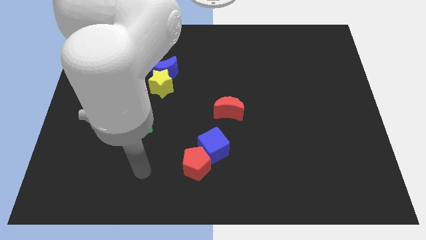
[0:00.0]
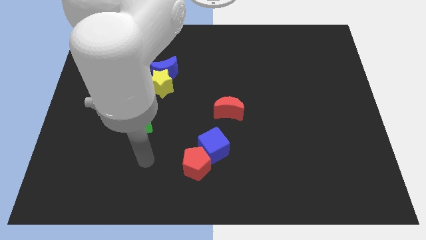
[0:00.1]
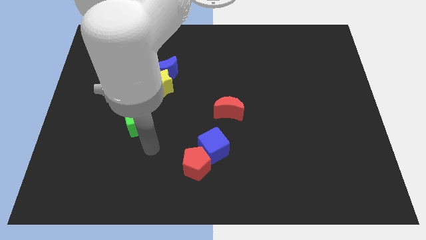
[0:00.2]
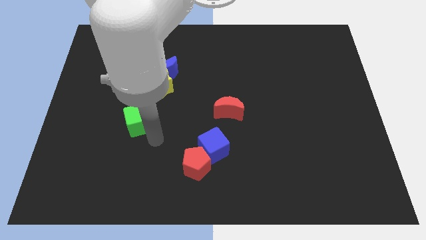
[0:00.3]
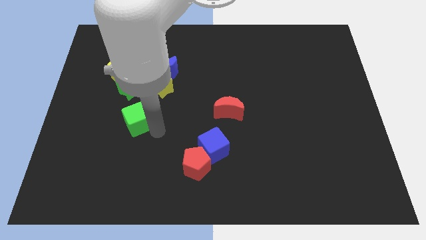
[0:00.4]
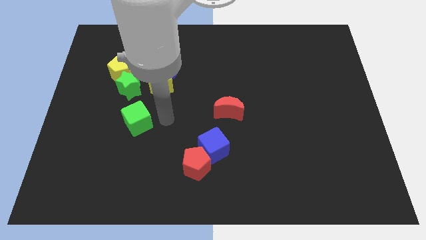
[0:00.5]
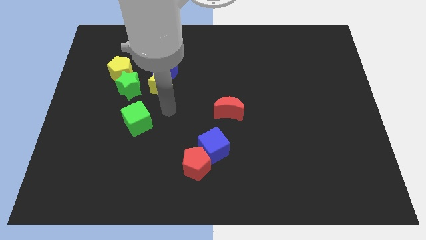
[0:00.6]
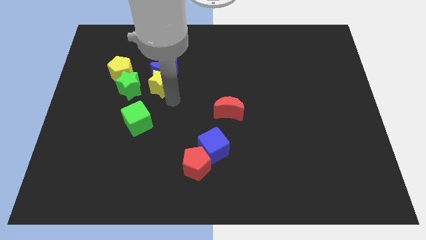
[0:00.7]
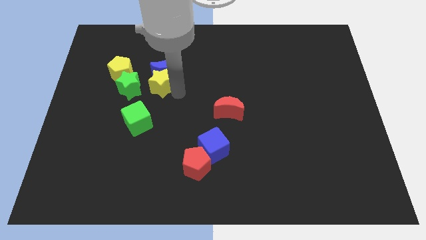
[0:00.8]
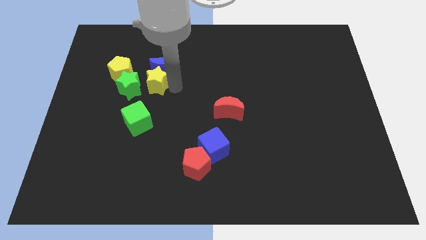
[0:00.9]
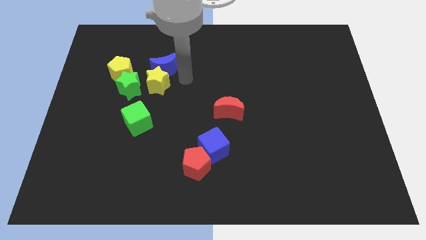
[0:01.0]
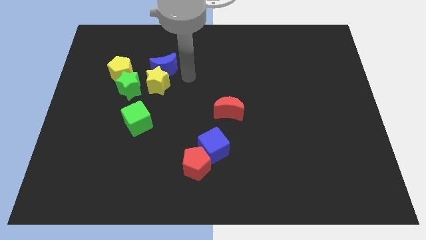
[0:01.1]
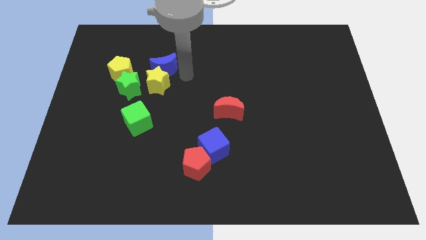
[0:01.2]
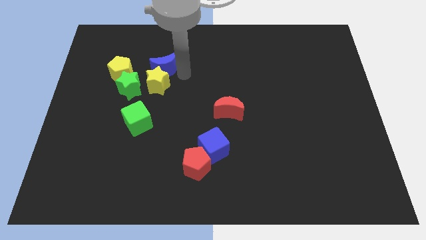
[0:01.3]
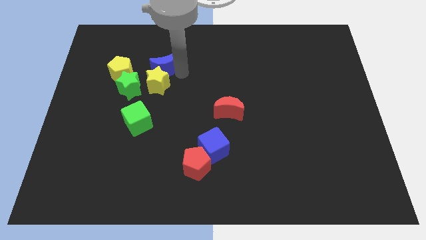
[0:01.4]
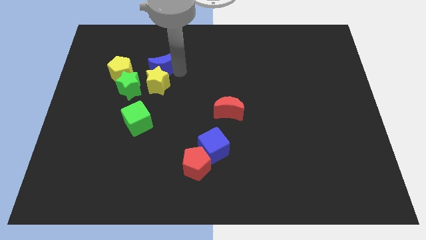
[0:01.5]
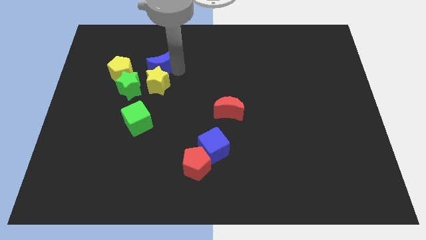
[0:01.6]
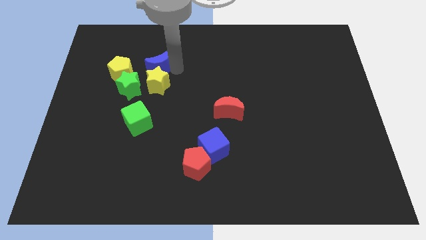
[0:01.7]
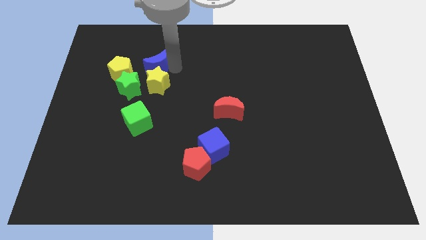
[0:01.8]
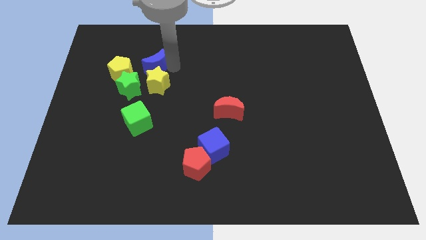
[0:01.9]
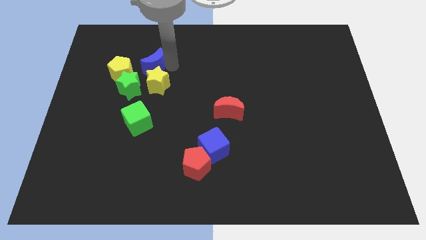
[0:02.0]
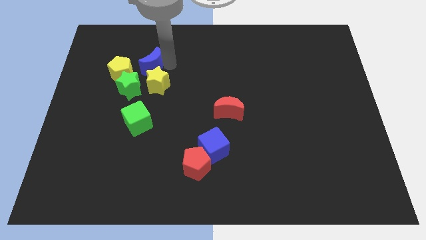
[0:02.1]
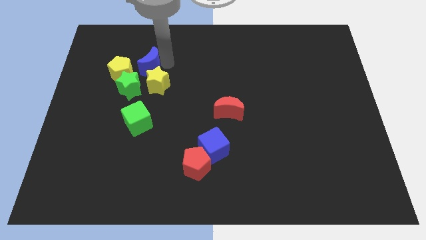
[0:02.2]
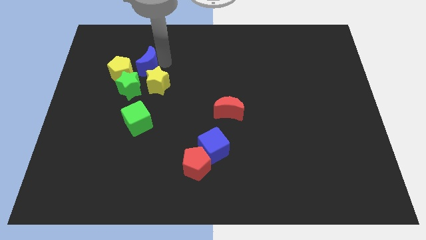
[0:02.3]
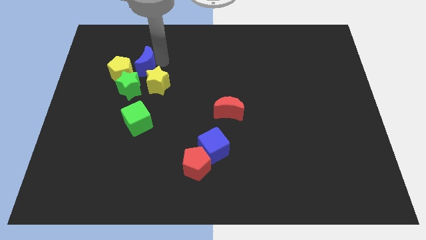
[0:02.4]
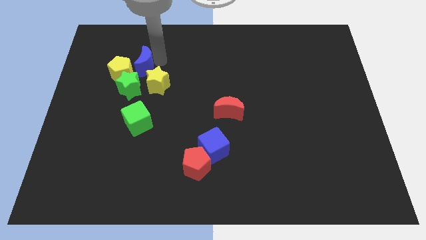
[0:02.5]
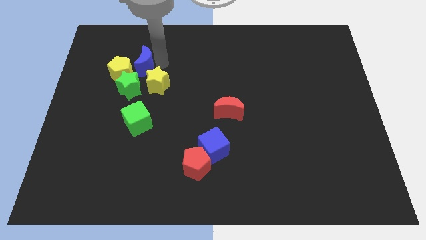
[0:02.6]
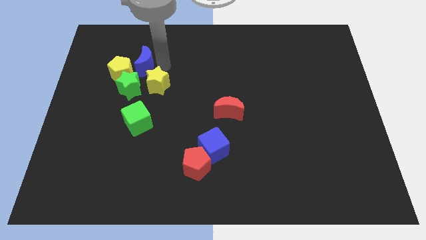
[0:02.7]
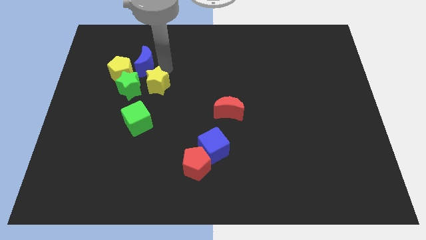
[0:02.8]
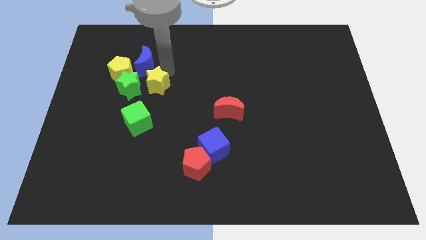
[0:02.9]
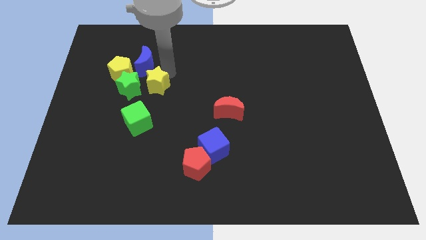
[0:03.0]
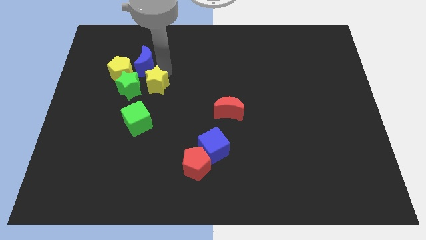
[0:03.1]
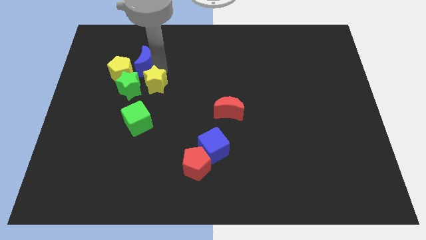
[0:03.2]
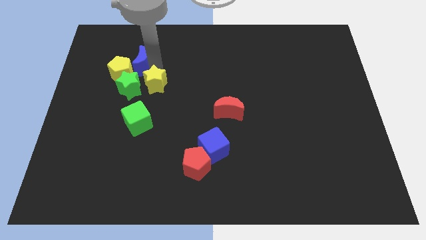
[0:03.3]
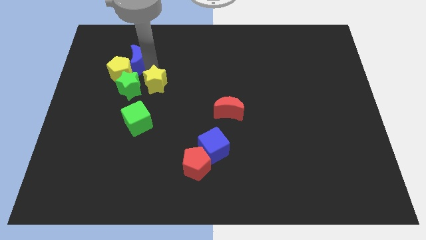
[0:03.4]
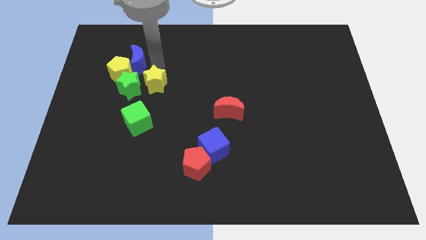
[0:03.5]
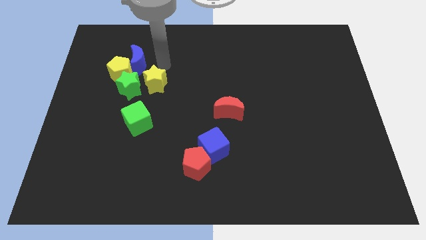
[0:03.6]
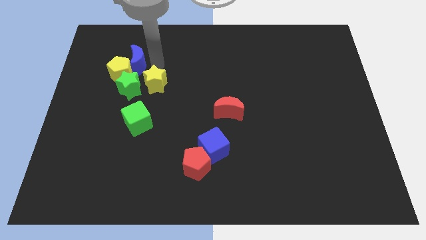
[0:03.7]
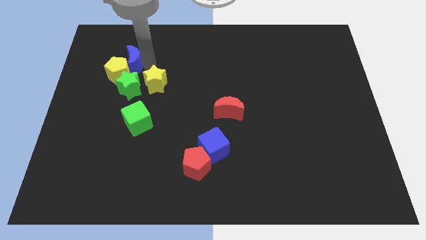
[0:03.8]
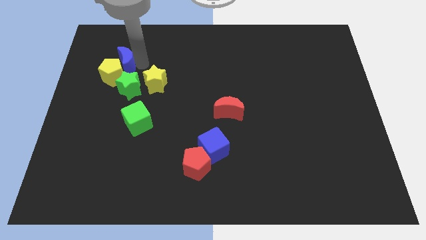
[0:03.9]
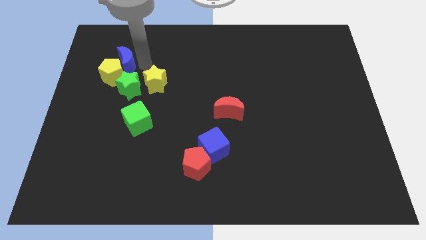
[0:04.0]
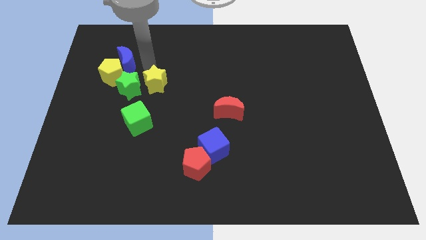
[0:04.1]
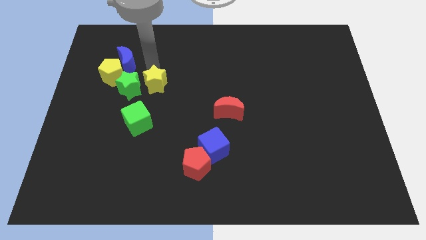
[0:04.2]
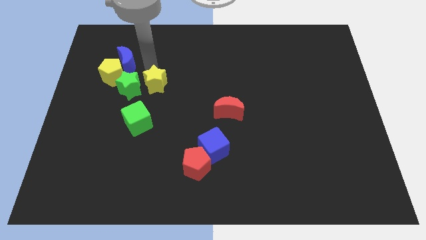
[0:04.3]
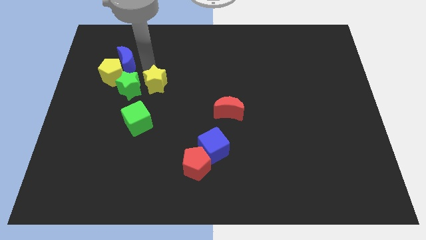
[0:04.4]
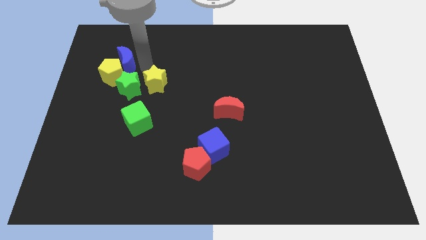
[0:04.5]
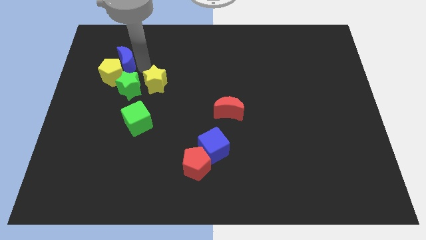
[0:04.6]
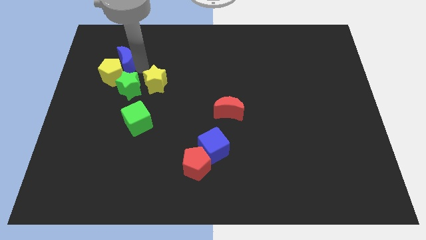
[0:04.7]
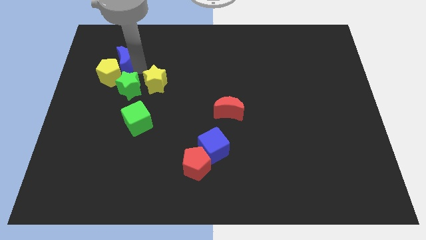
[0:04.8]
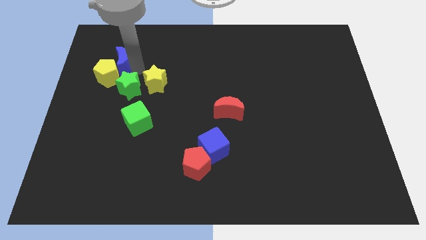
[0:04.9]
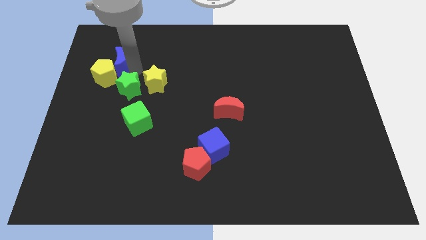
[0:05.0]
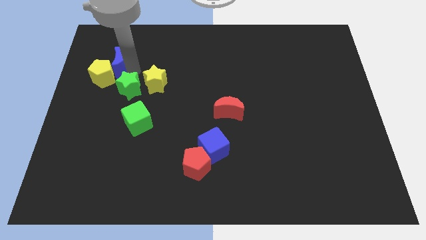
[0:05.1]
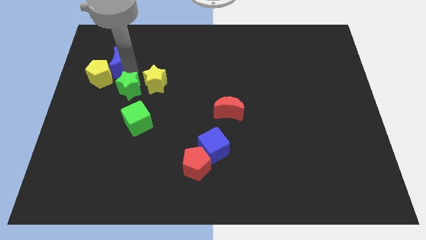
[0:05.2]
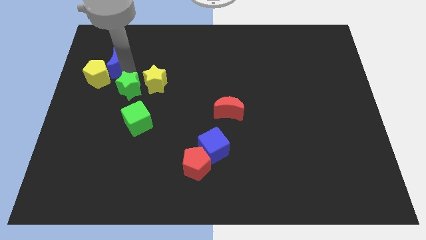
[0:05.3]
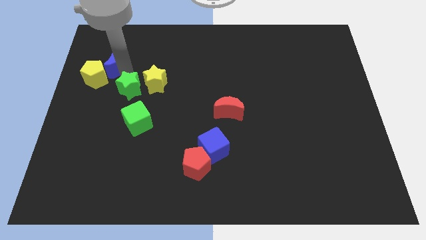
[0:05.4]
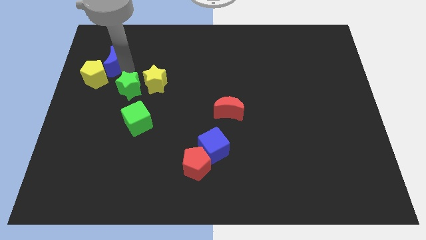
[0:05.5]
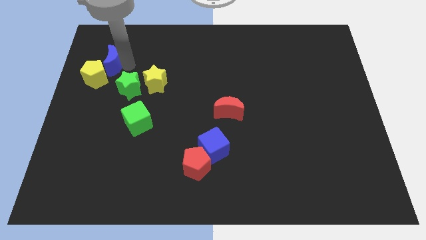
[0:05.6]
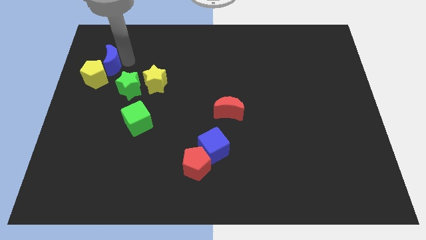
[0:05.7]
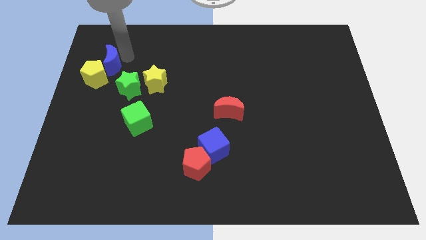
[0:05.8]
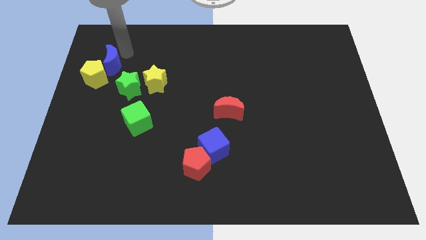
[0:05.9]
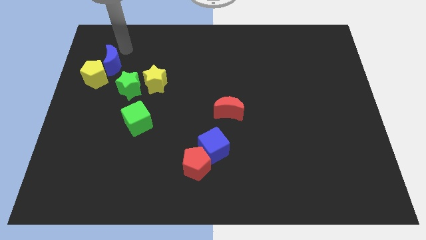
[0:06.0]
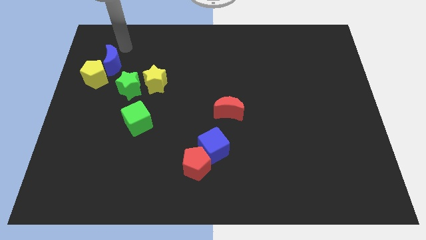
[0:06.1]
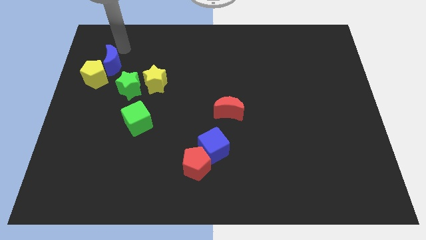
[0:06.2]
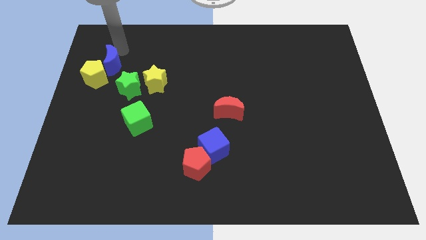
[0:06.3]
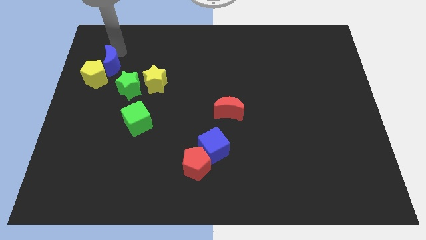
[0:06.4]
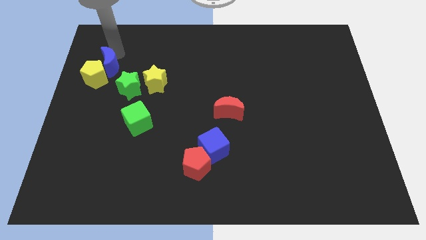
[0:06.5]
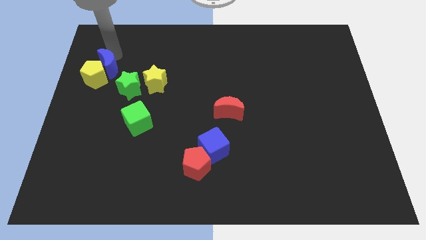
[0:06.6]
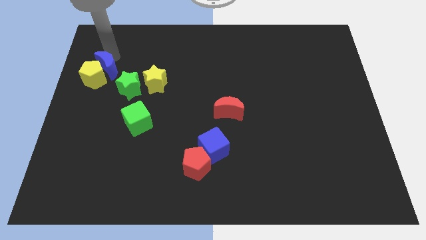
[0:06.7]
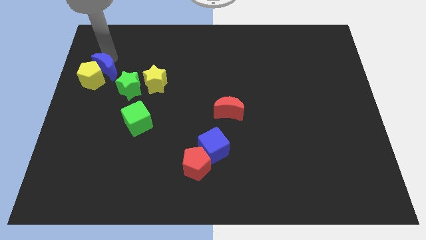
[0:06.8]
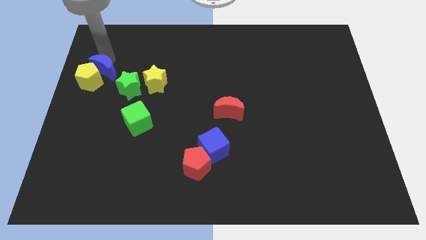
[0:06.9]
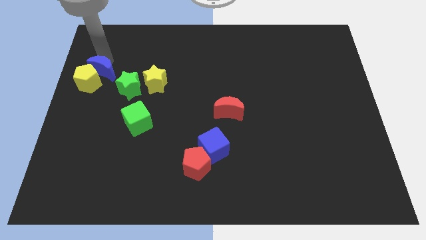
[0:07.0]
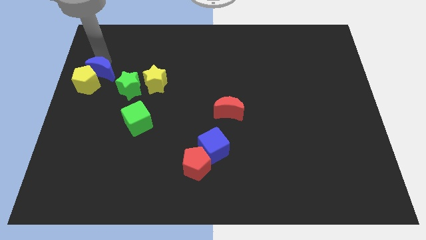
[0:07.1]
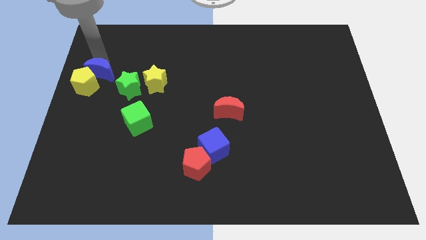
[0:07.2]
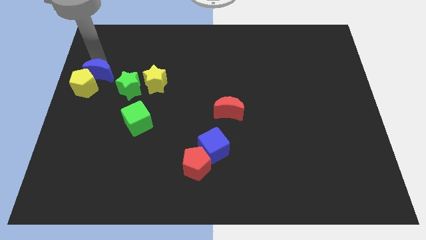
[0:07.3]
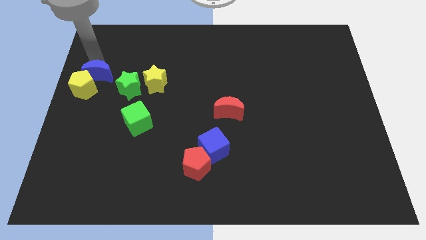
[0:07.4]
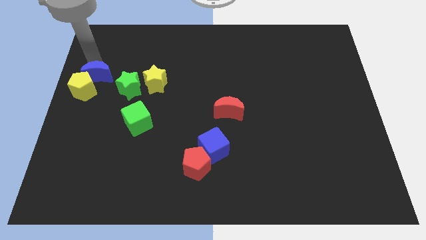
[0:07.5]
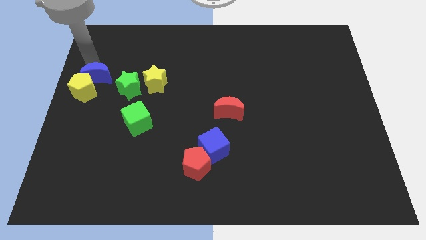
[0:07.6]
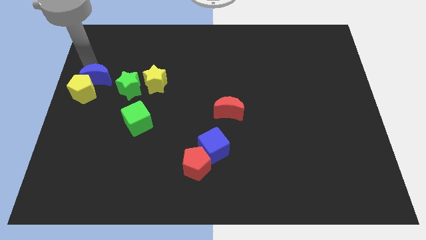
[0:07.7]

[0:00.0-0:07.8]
push the blue moon diagonally down and left a little
